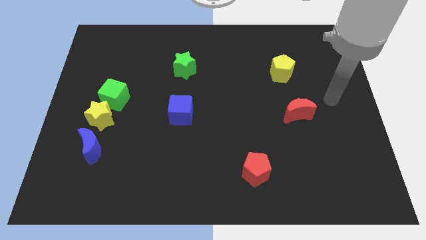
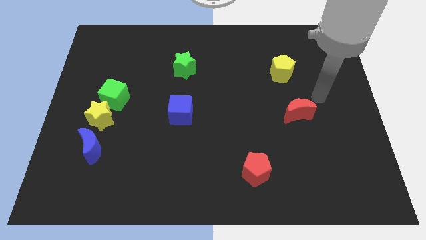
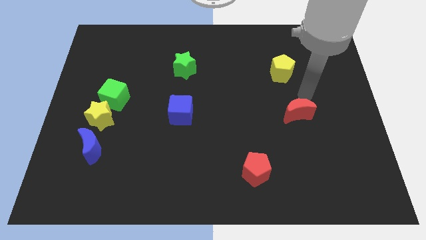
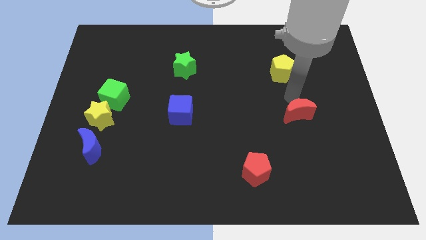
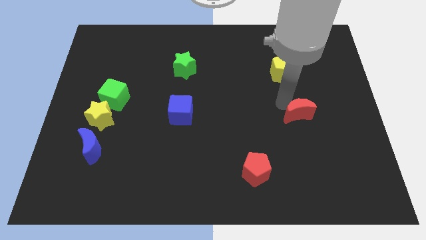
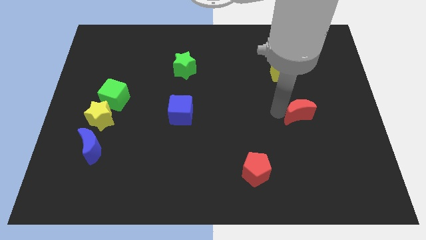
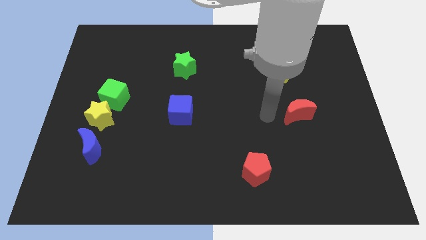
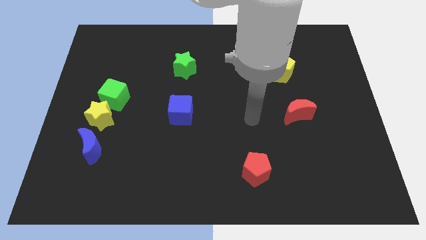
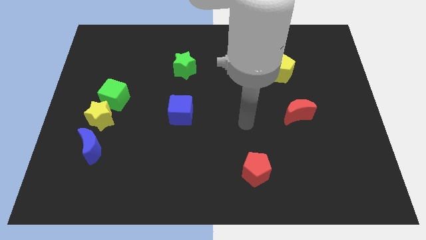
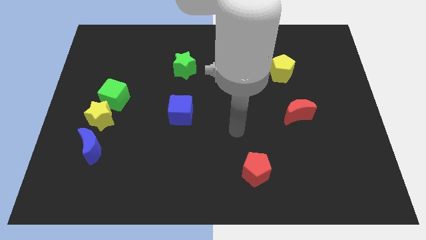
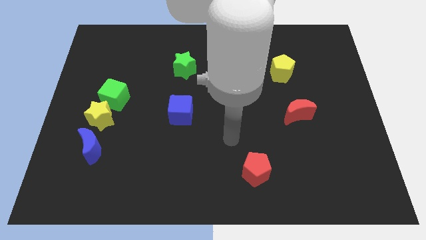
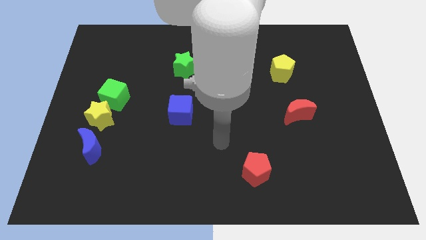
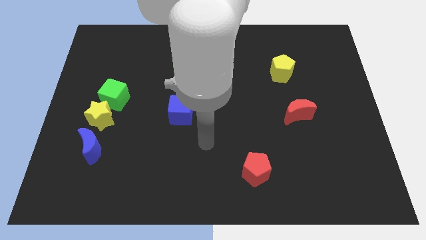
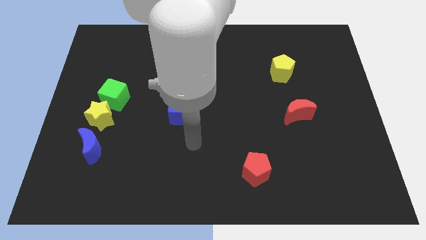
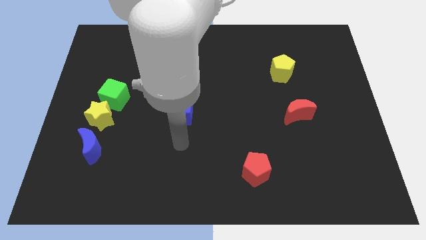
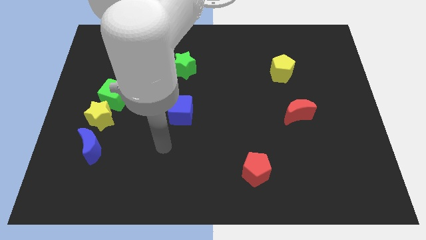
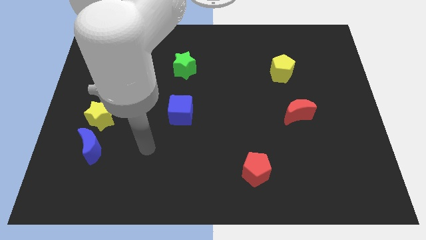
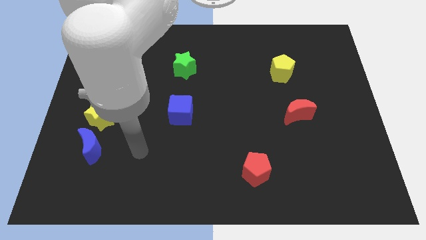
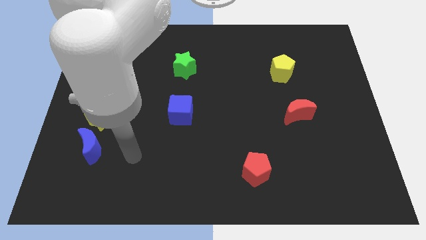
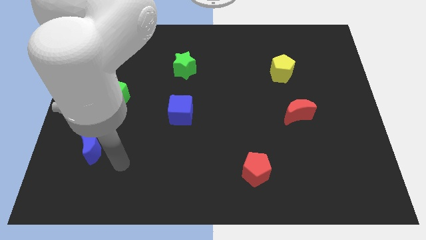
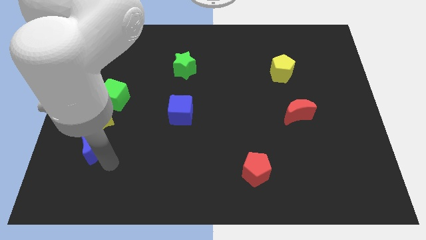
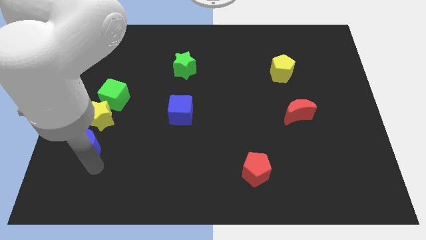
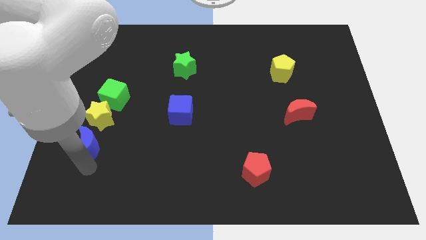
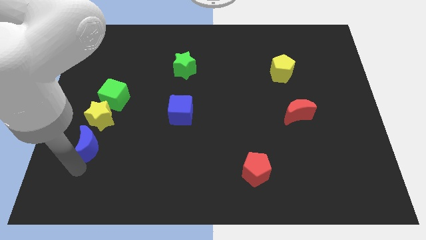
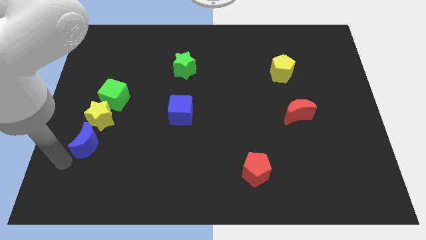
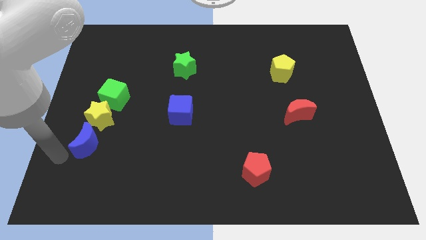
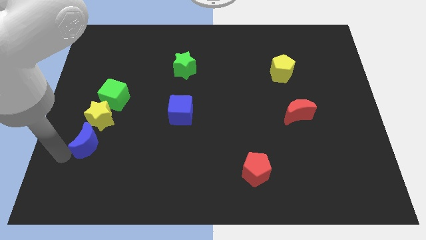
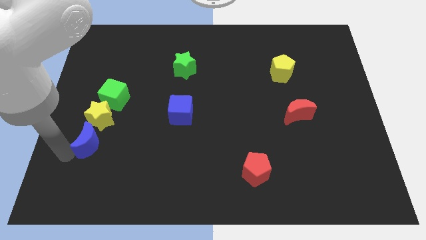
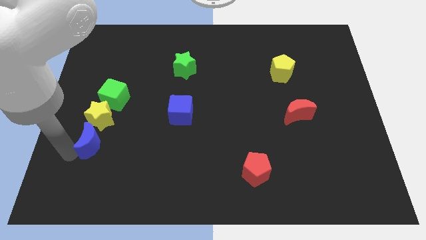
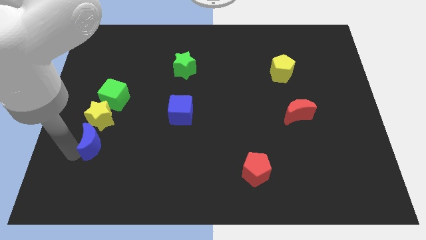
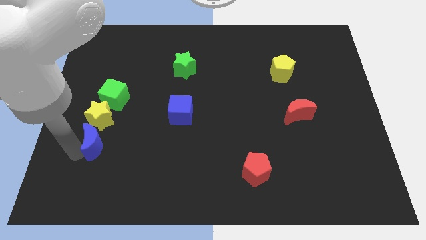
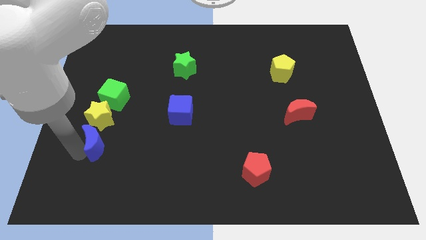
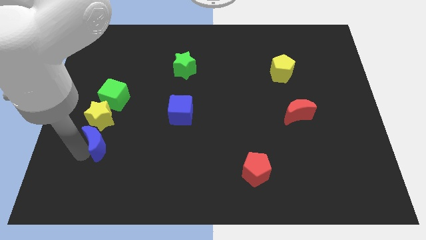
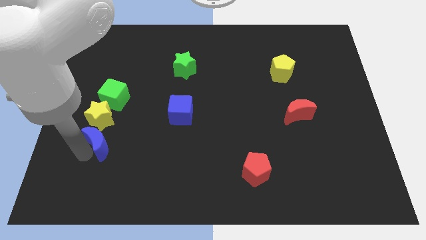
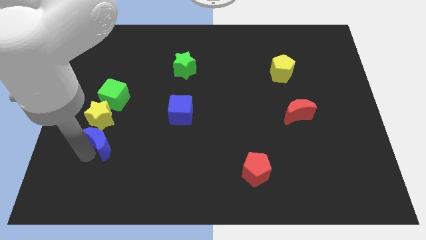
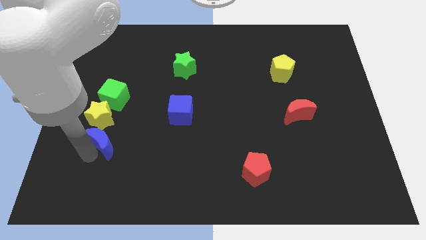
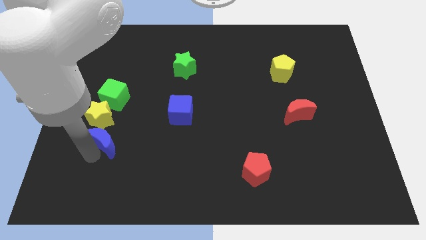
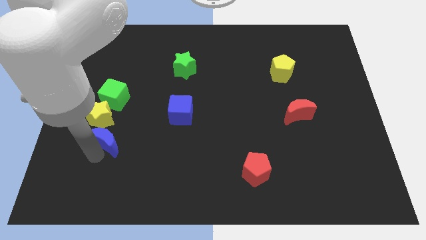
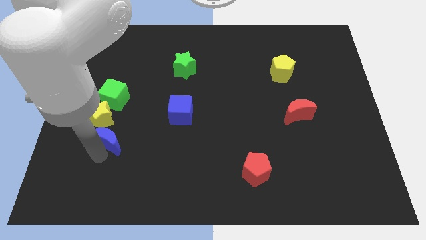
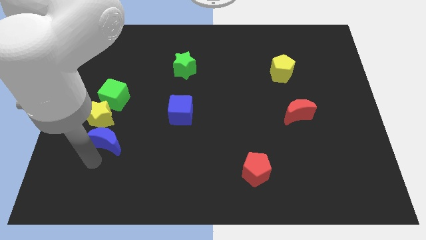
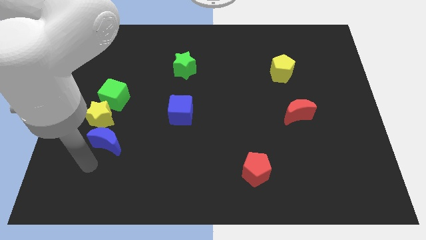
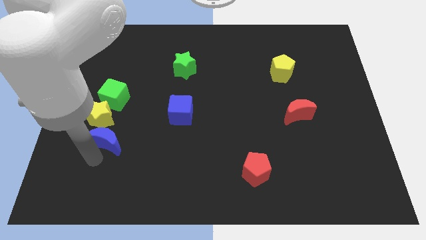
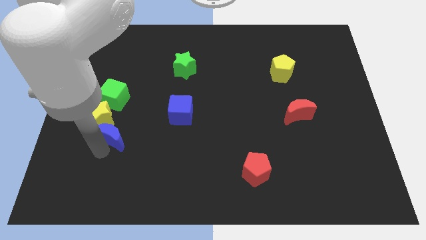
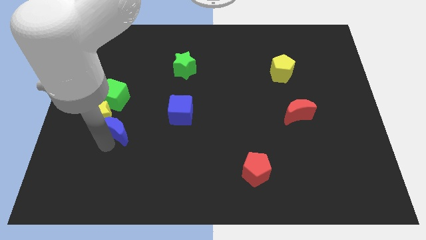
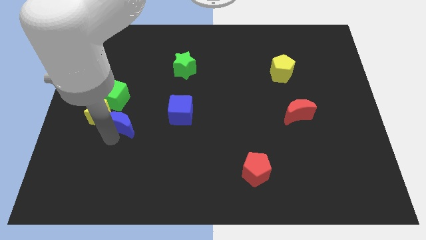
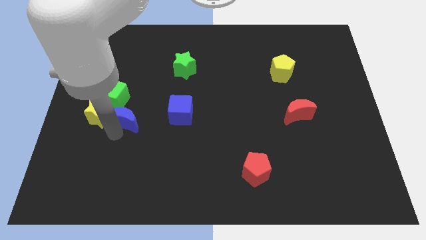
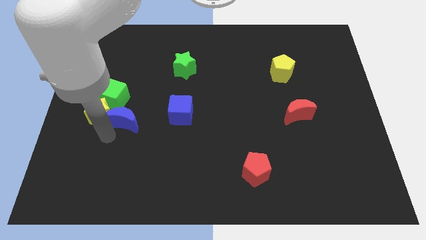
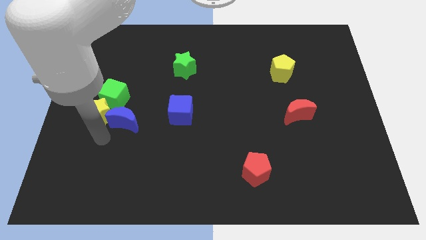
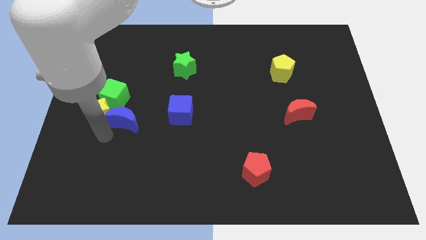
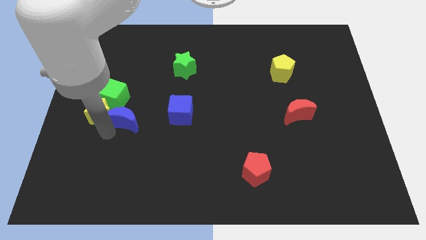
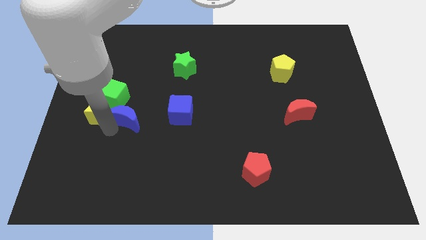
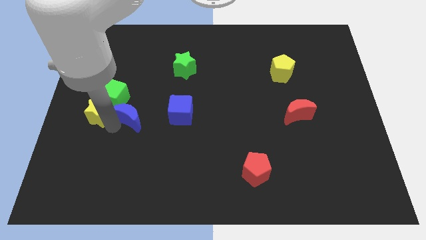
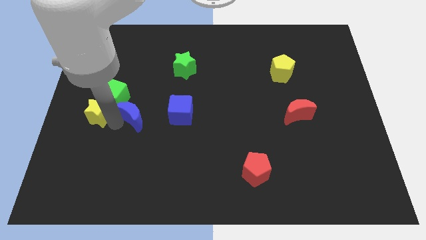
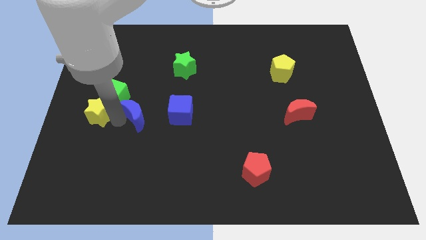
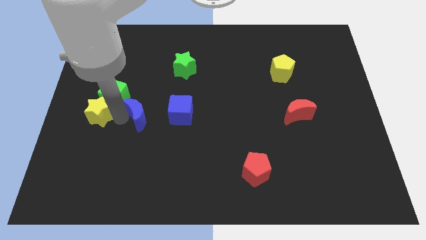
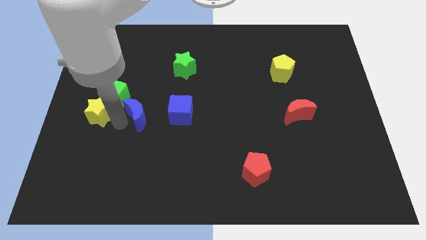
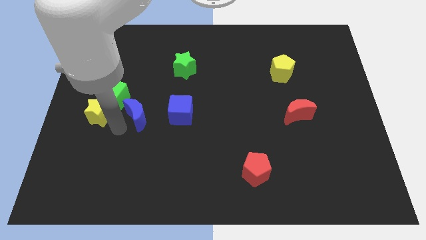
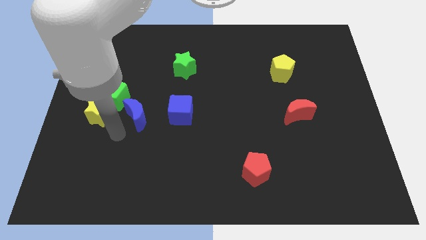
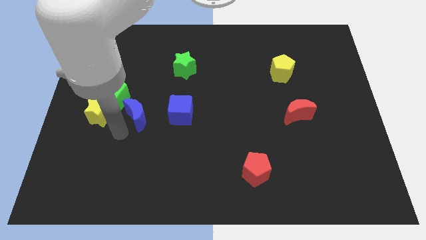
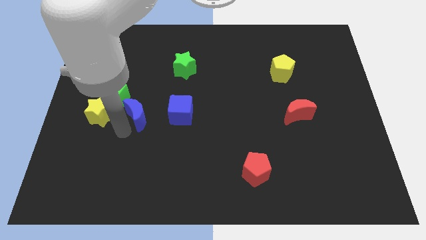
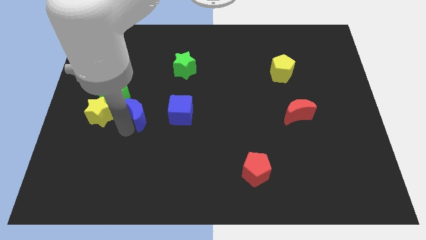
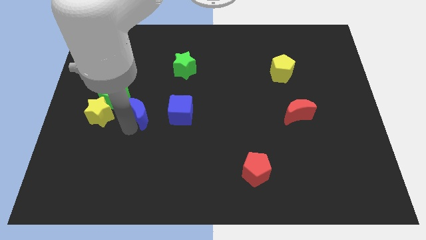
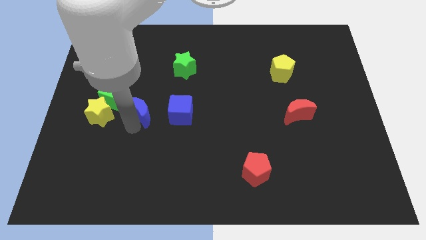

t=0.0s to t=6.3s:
slide the blue moon to the right of the green cube
